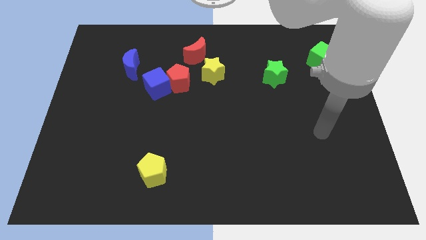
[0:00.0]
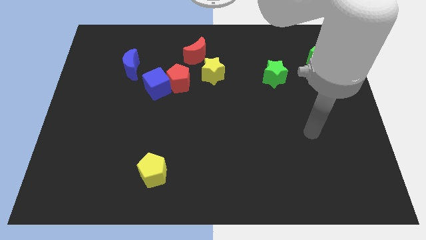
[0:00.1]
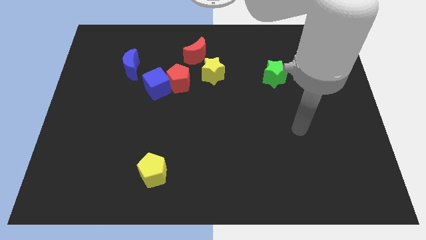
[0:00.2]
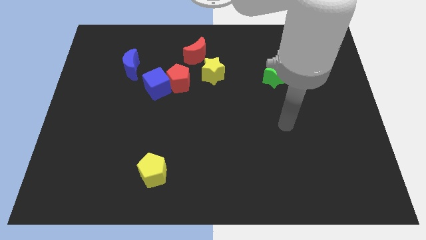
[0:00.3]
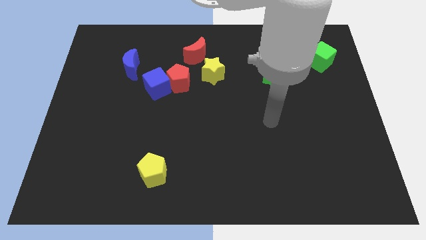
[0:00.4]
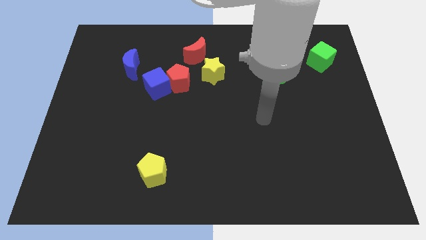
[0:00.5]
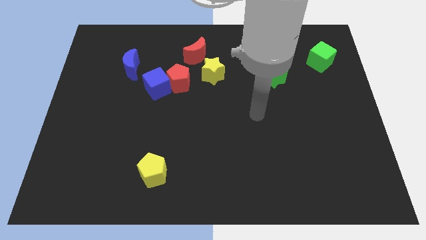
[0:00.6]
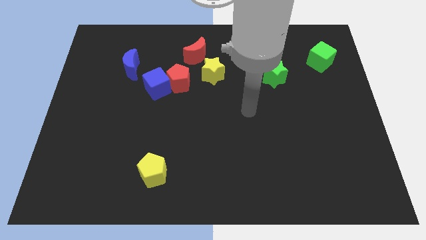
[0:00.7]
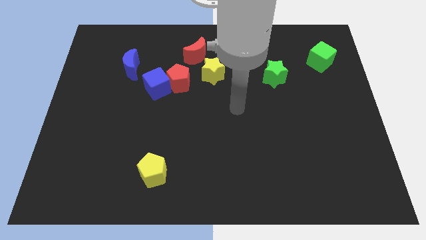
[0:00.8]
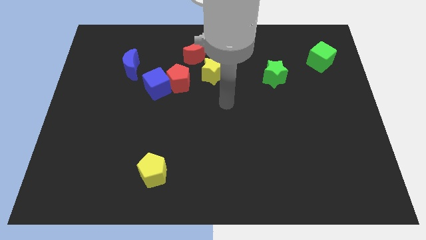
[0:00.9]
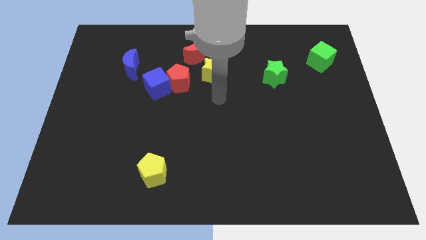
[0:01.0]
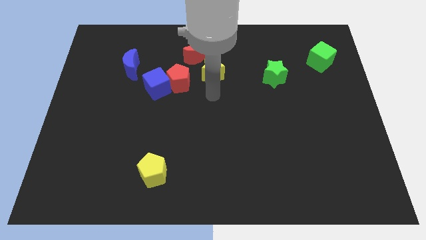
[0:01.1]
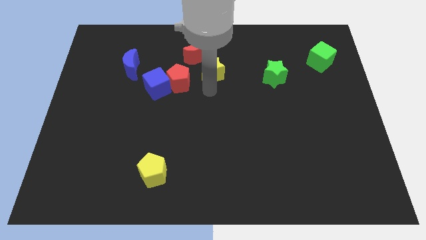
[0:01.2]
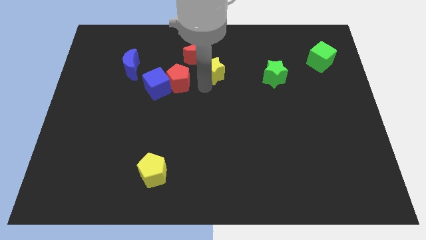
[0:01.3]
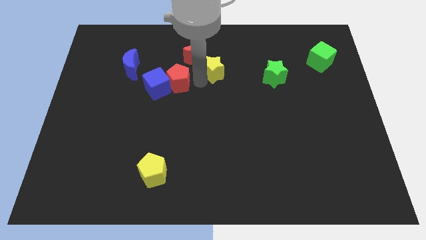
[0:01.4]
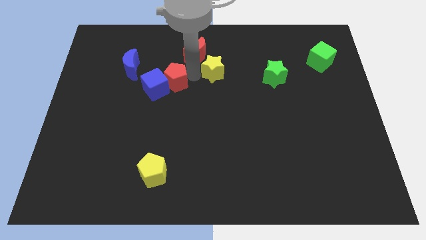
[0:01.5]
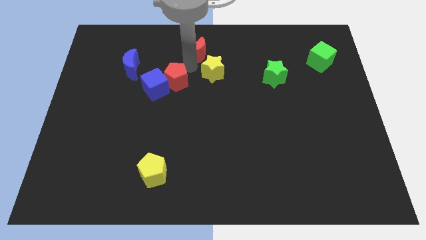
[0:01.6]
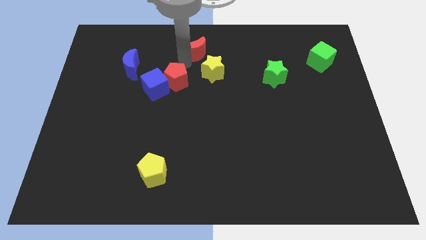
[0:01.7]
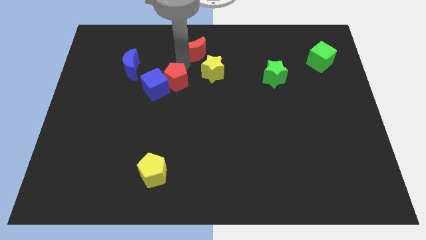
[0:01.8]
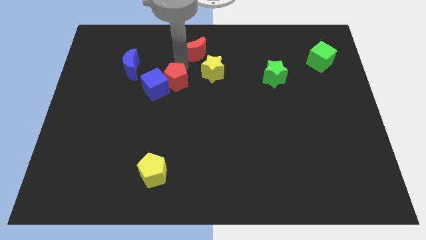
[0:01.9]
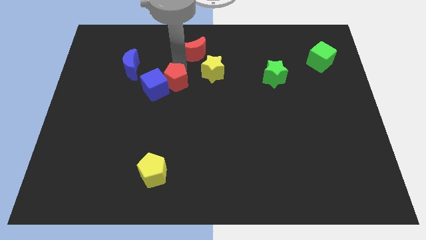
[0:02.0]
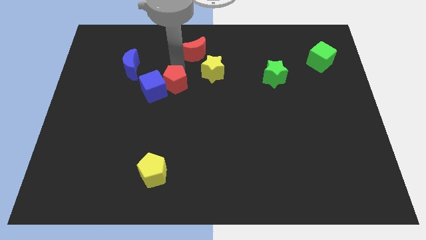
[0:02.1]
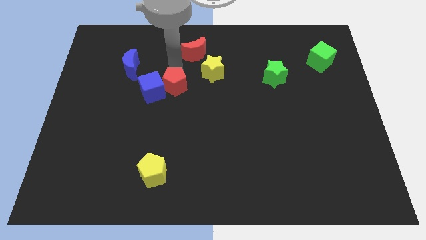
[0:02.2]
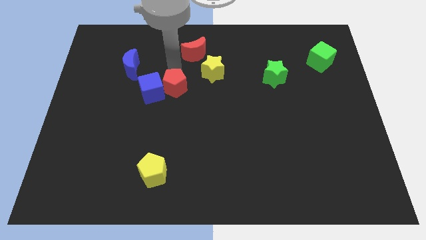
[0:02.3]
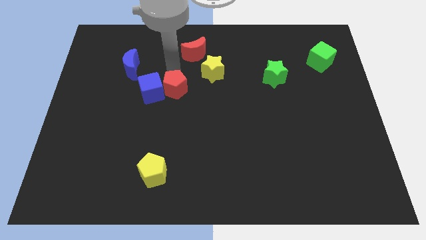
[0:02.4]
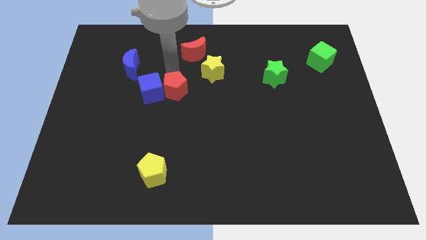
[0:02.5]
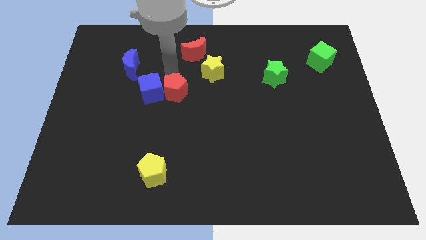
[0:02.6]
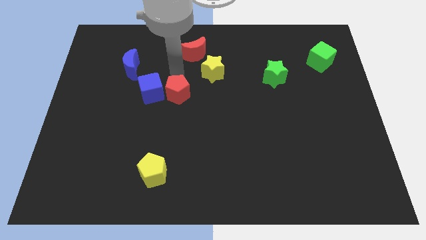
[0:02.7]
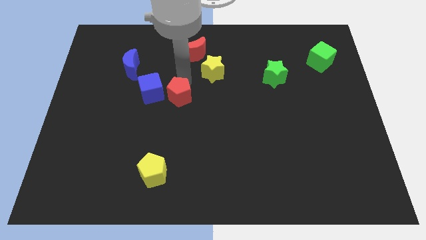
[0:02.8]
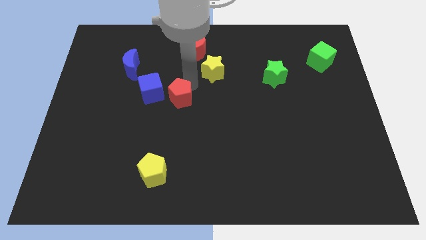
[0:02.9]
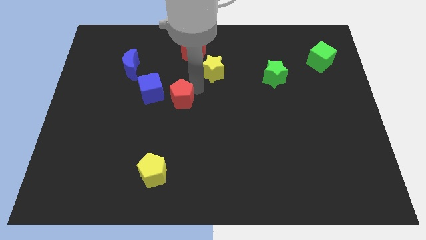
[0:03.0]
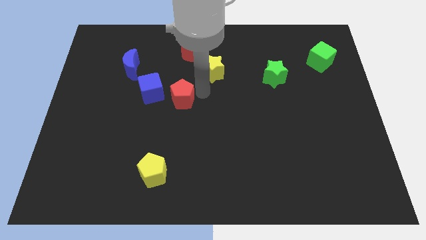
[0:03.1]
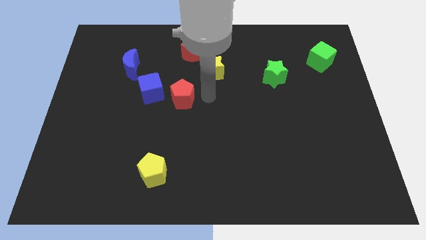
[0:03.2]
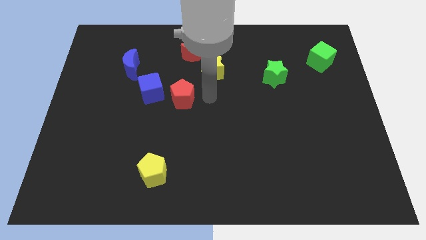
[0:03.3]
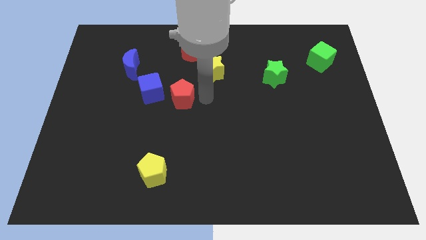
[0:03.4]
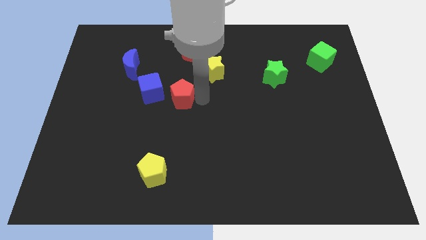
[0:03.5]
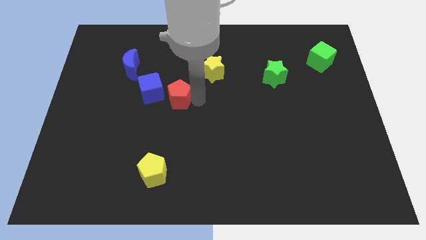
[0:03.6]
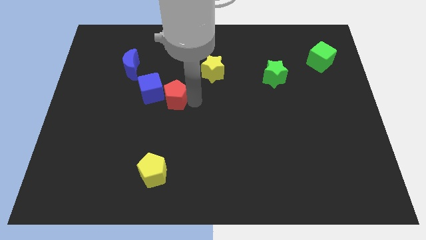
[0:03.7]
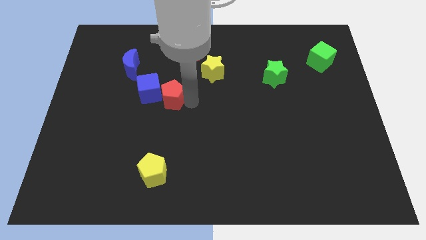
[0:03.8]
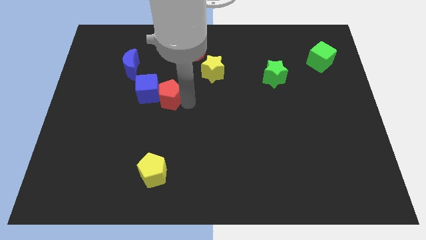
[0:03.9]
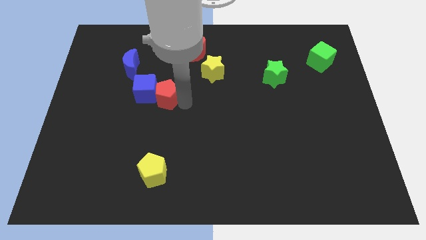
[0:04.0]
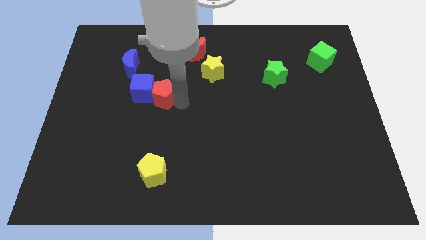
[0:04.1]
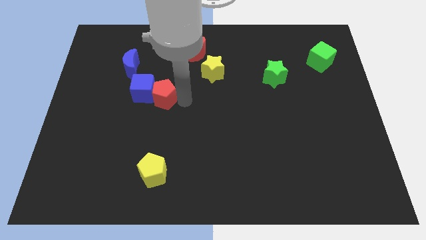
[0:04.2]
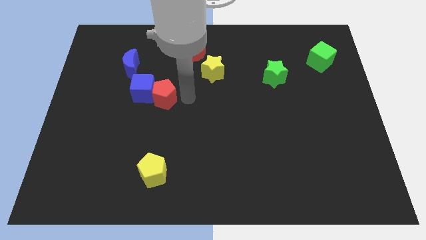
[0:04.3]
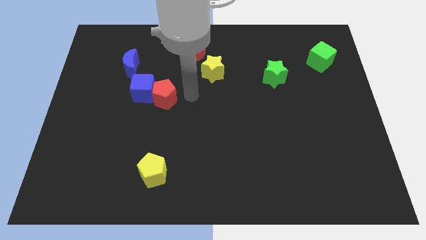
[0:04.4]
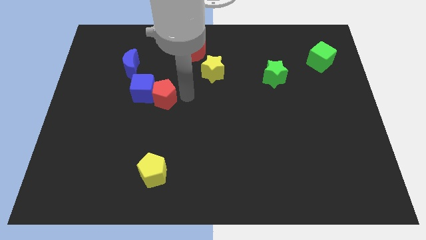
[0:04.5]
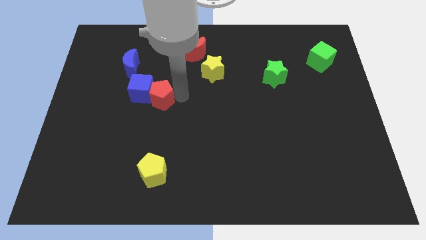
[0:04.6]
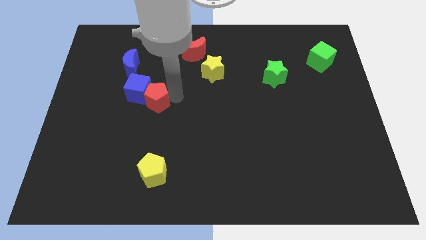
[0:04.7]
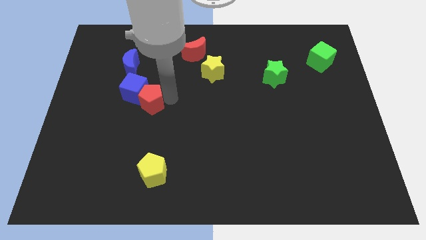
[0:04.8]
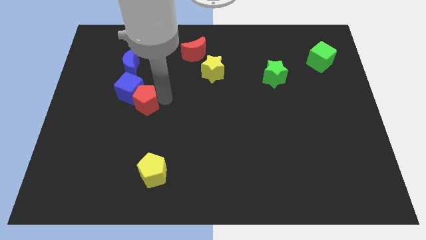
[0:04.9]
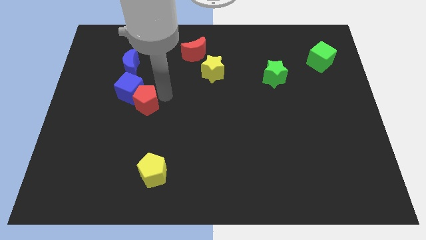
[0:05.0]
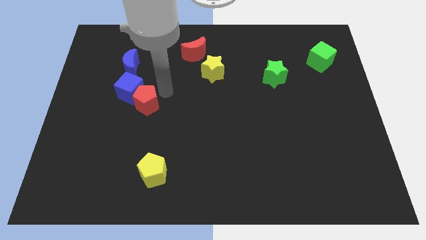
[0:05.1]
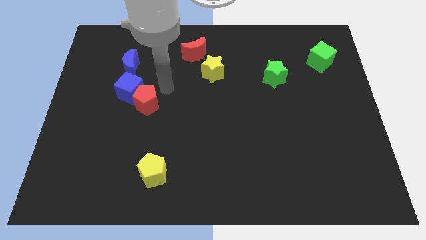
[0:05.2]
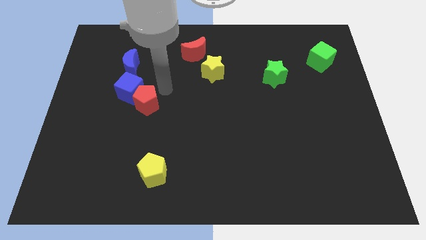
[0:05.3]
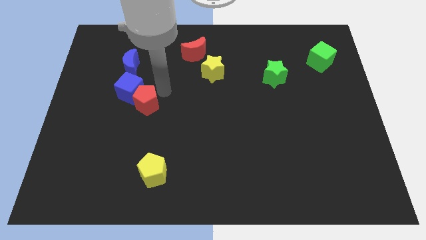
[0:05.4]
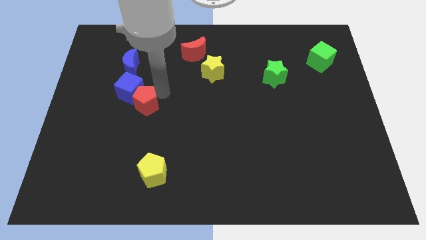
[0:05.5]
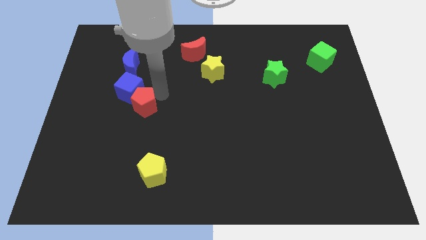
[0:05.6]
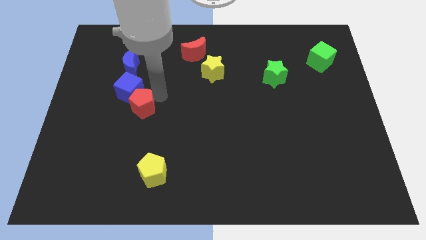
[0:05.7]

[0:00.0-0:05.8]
pull the red pentagon apart from the blue cube and yellow star

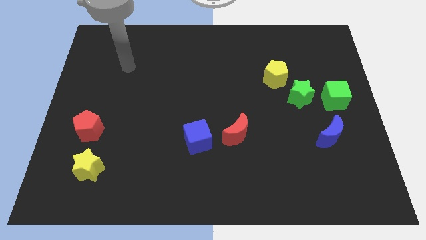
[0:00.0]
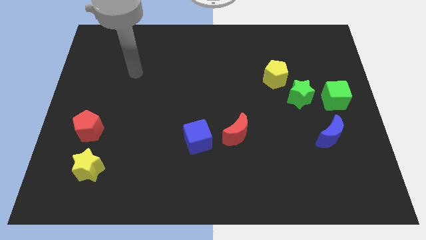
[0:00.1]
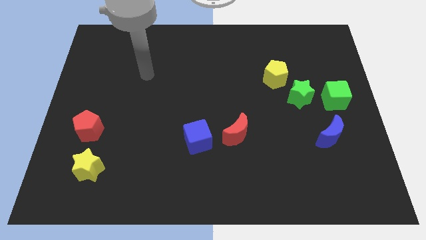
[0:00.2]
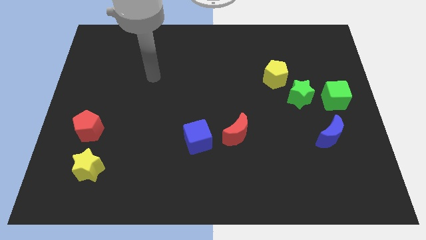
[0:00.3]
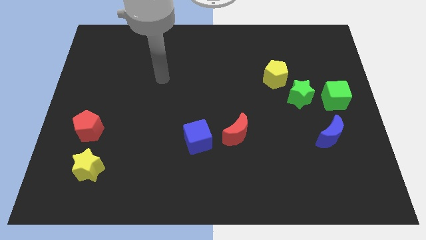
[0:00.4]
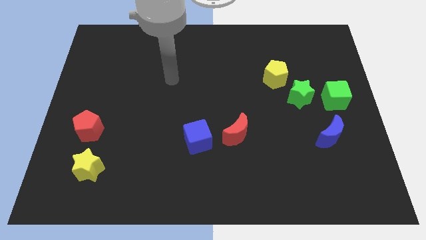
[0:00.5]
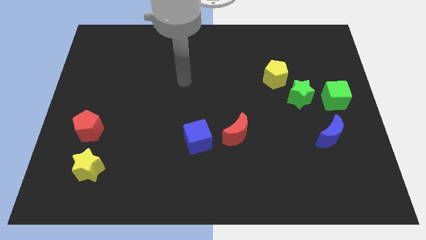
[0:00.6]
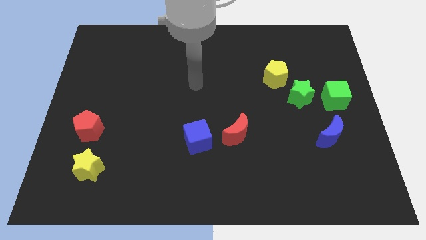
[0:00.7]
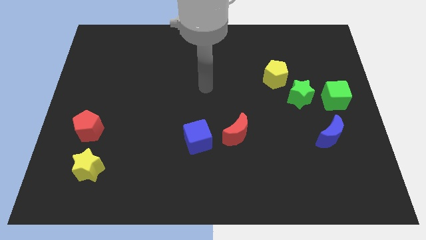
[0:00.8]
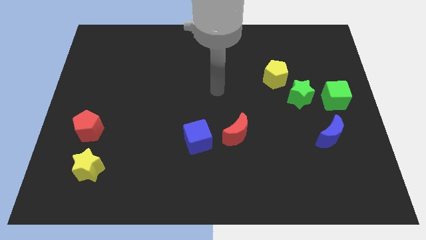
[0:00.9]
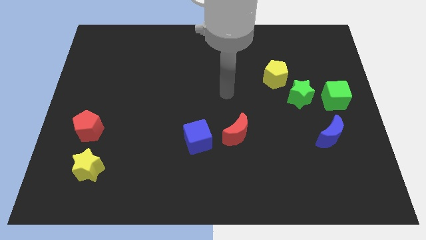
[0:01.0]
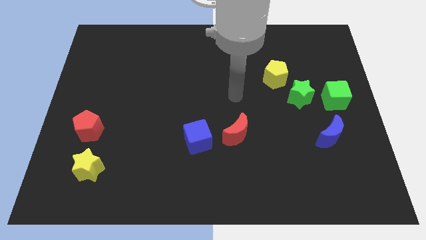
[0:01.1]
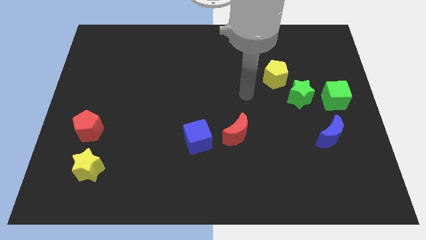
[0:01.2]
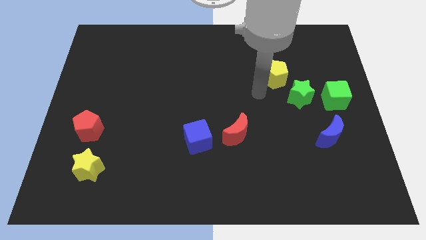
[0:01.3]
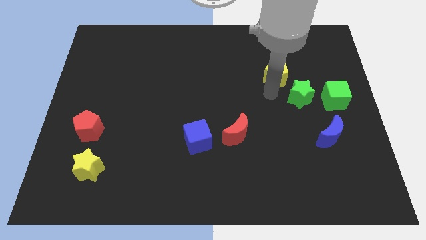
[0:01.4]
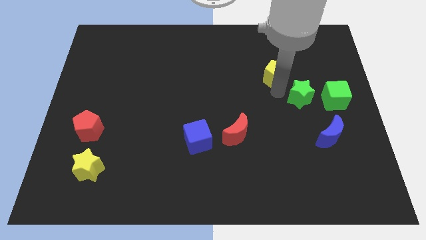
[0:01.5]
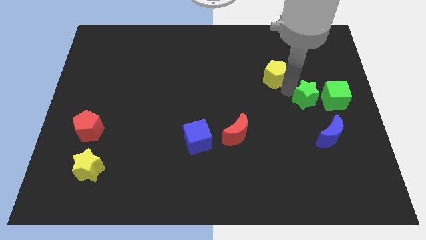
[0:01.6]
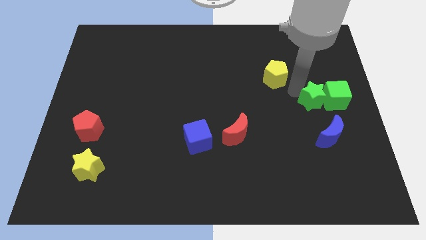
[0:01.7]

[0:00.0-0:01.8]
move the yellow pentagon away from the green star

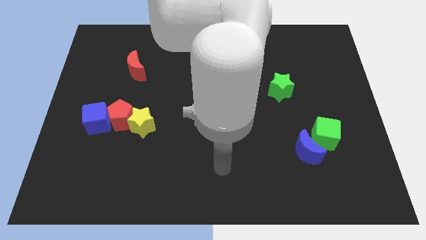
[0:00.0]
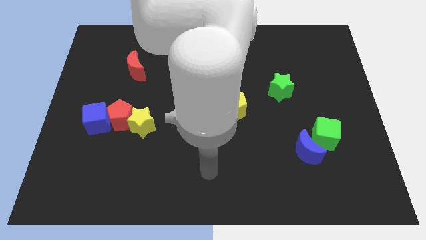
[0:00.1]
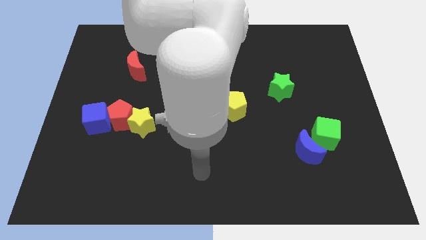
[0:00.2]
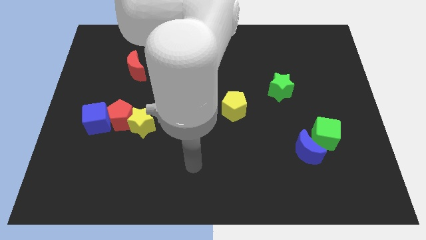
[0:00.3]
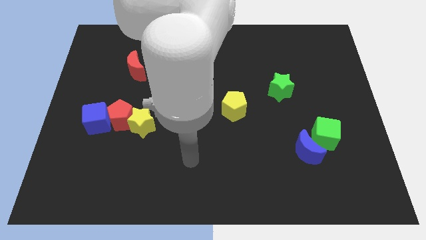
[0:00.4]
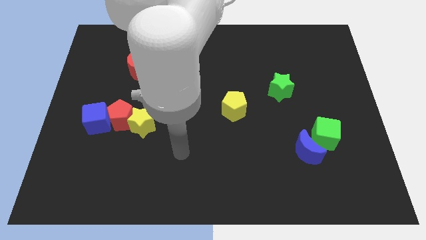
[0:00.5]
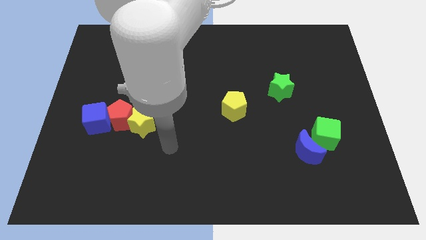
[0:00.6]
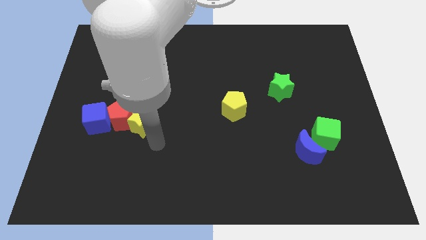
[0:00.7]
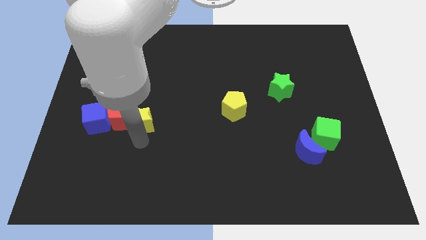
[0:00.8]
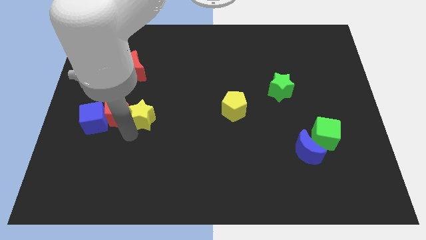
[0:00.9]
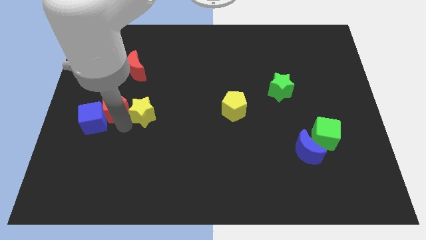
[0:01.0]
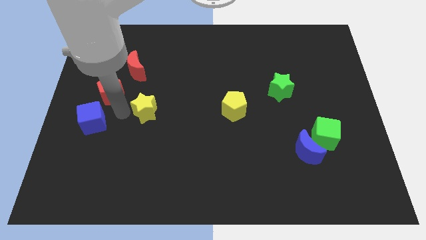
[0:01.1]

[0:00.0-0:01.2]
pull the yellow star apart from the red pentagon

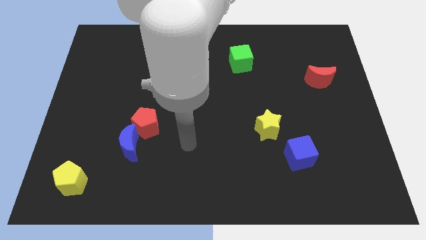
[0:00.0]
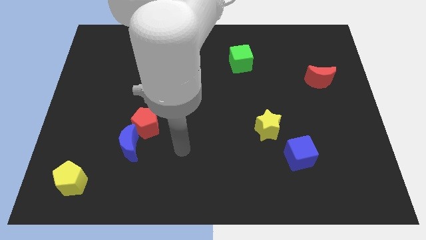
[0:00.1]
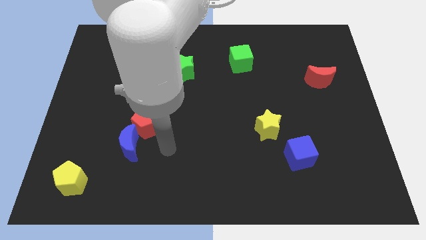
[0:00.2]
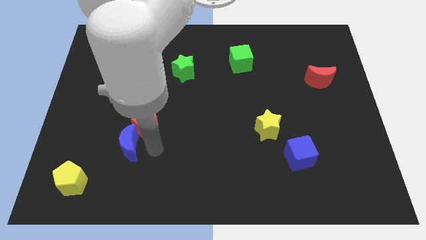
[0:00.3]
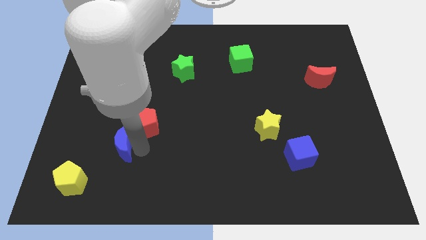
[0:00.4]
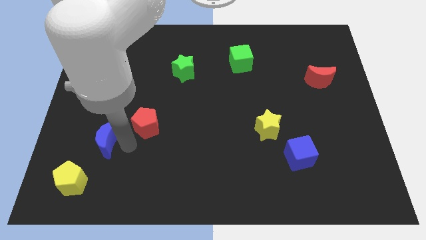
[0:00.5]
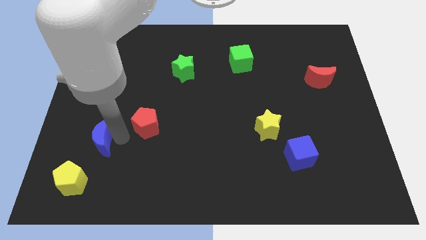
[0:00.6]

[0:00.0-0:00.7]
move the red pentagon away from the blue moon
